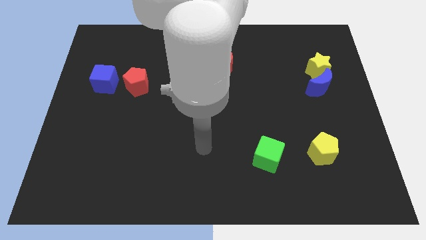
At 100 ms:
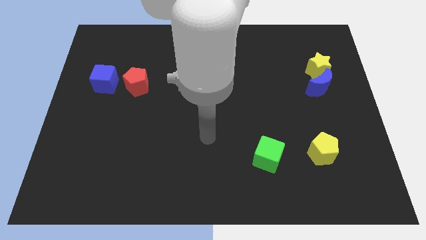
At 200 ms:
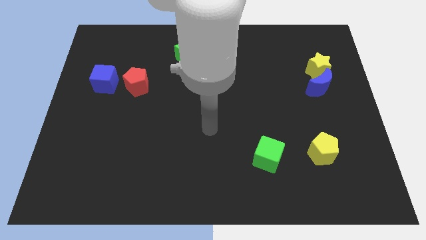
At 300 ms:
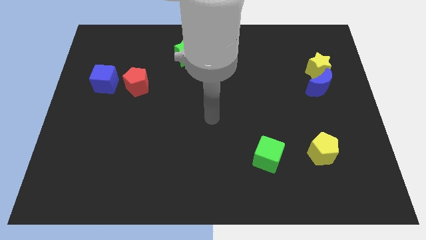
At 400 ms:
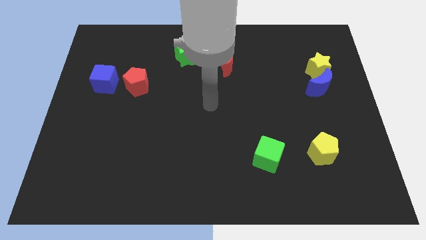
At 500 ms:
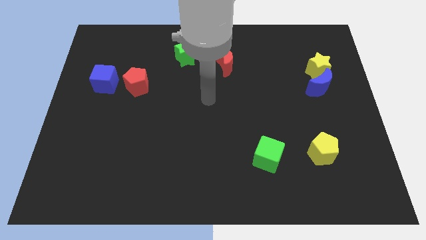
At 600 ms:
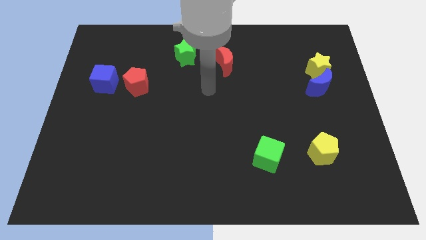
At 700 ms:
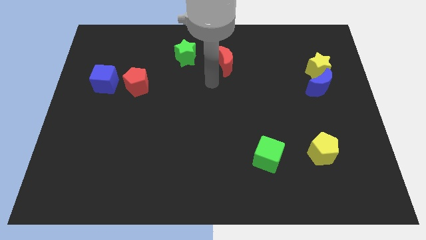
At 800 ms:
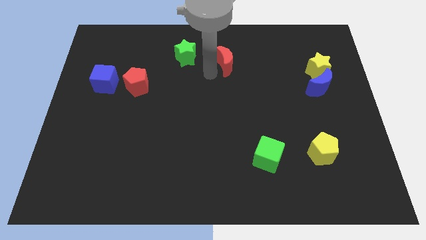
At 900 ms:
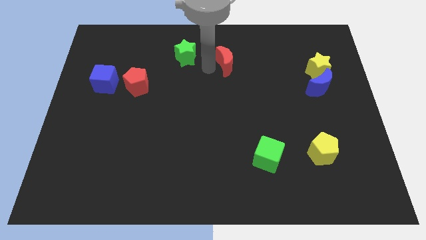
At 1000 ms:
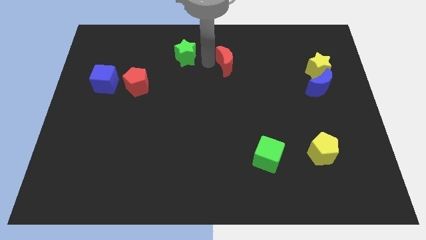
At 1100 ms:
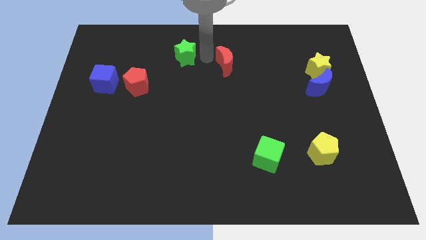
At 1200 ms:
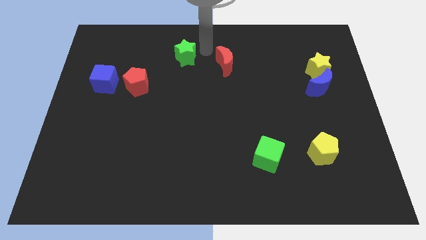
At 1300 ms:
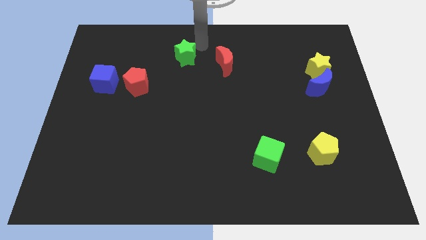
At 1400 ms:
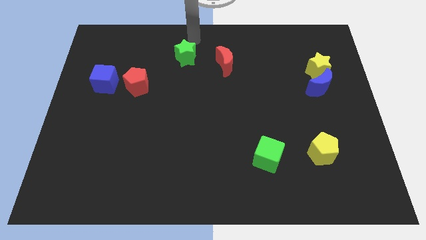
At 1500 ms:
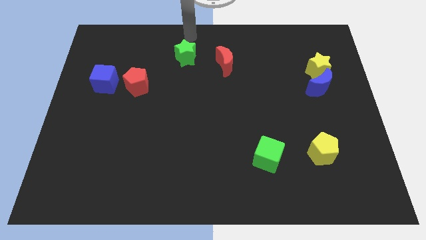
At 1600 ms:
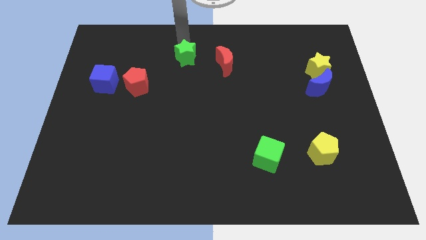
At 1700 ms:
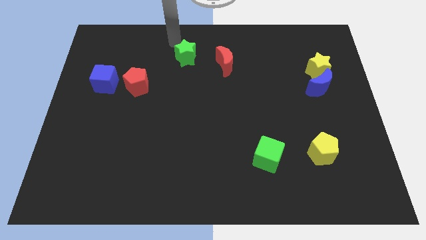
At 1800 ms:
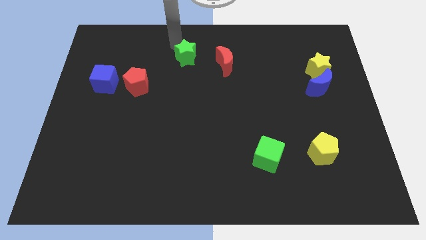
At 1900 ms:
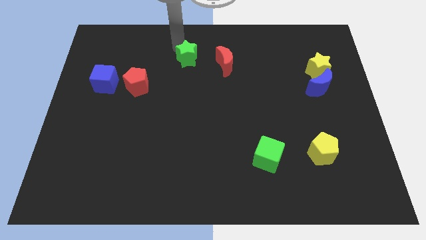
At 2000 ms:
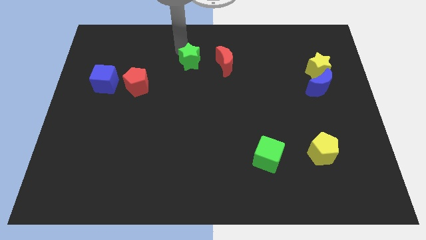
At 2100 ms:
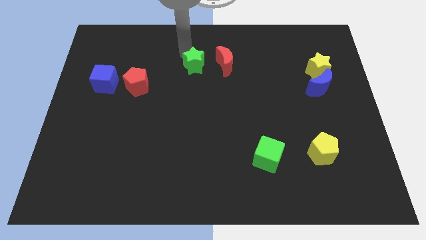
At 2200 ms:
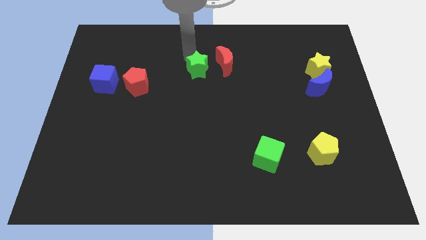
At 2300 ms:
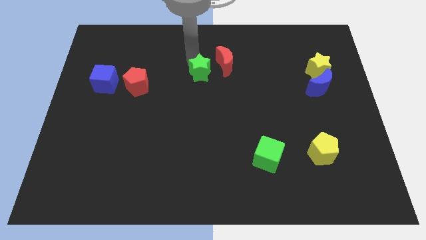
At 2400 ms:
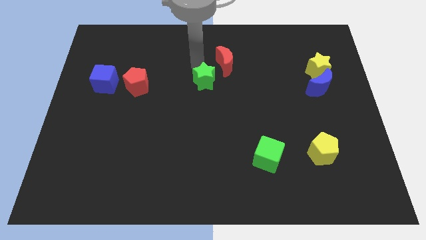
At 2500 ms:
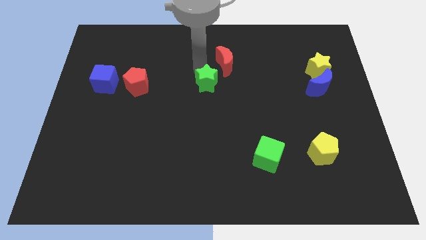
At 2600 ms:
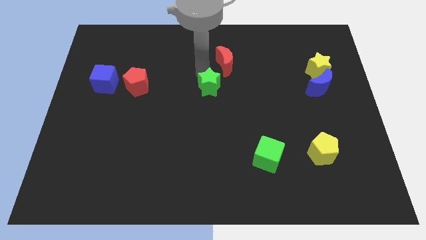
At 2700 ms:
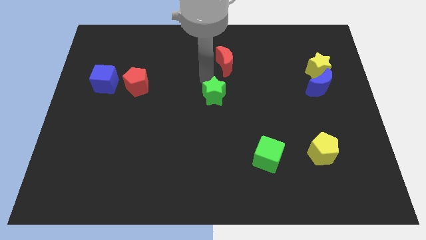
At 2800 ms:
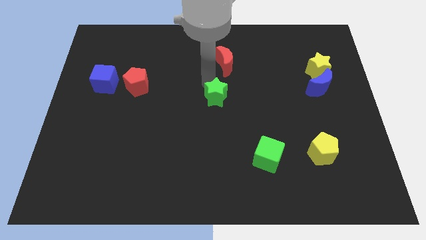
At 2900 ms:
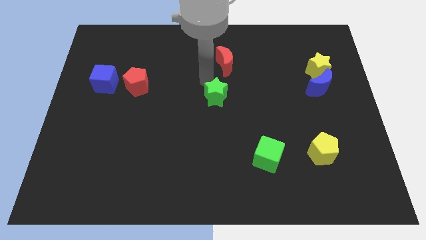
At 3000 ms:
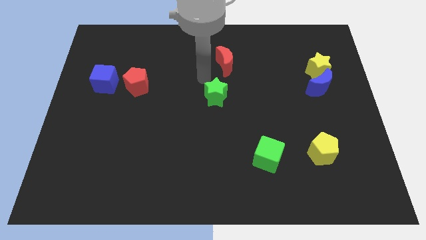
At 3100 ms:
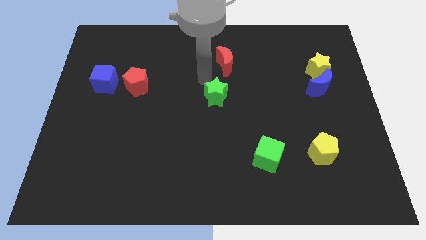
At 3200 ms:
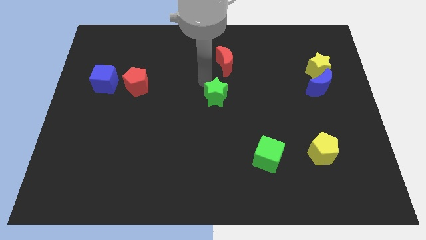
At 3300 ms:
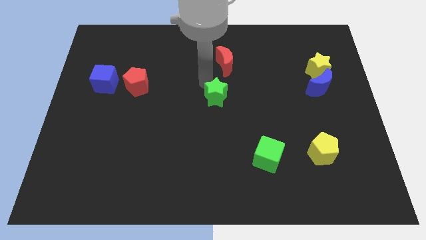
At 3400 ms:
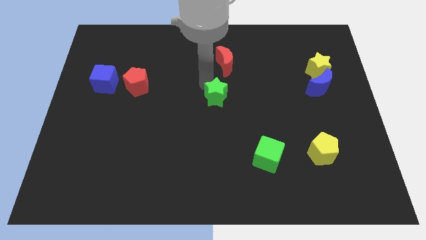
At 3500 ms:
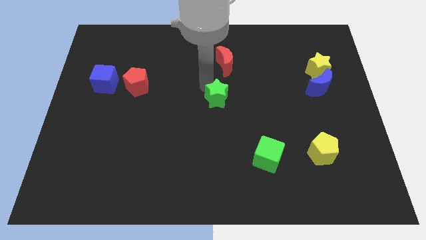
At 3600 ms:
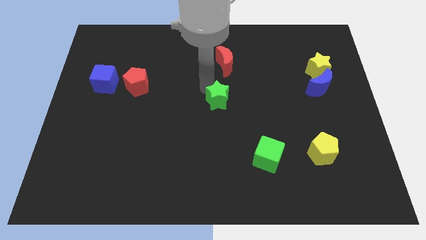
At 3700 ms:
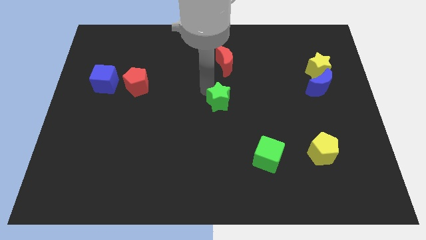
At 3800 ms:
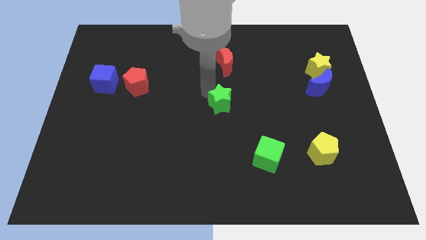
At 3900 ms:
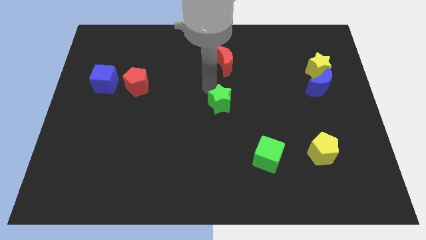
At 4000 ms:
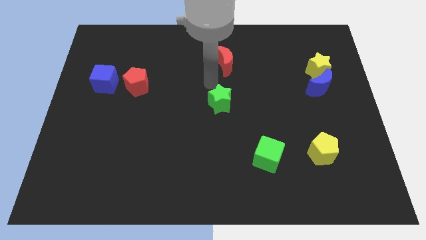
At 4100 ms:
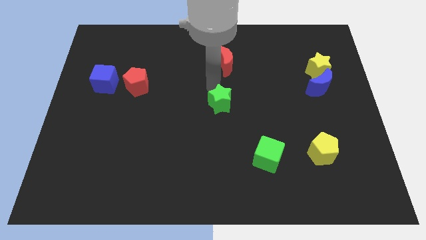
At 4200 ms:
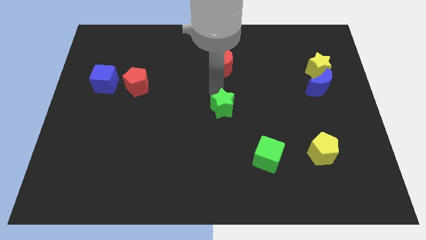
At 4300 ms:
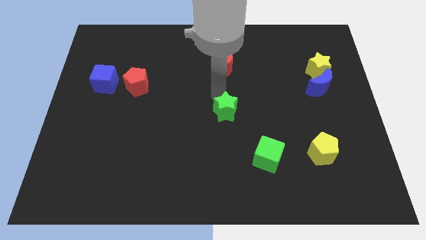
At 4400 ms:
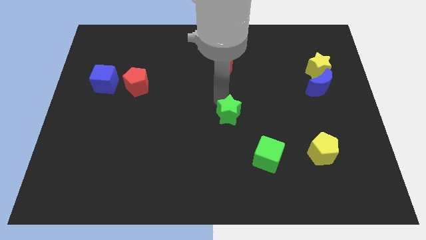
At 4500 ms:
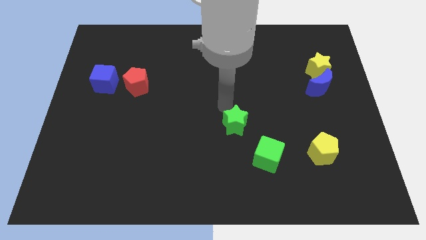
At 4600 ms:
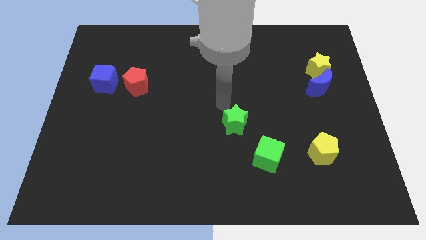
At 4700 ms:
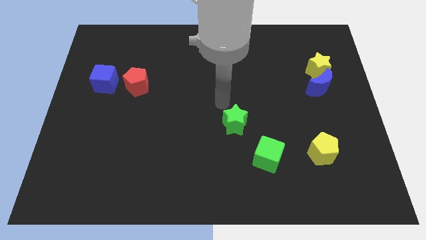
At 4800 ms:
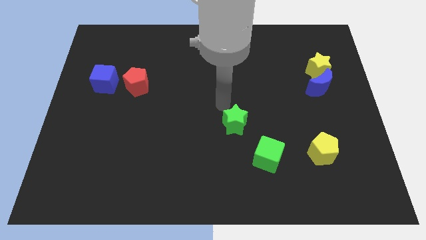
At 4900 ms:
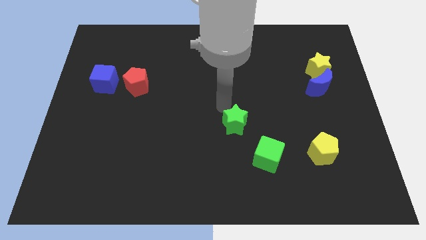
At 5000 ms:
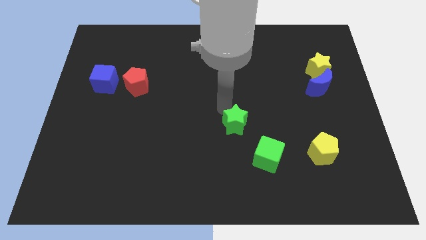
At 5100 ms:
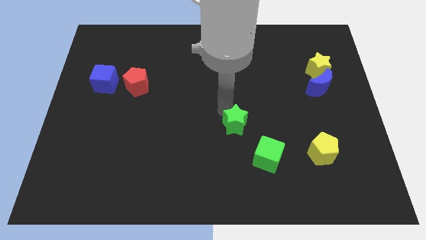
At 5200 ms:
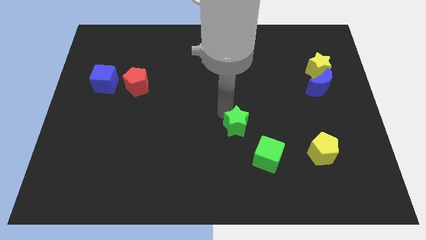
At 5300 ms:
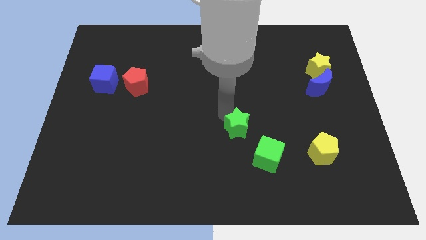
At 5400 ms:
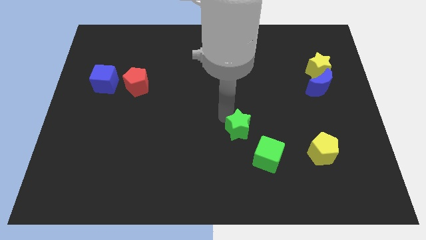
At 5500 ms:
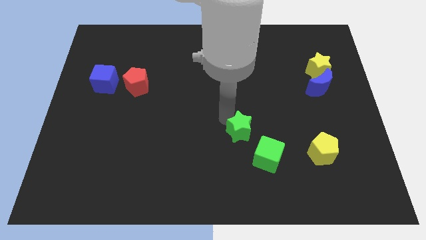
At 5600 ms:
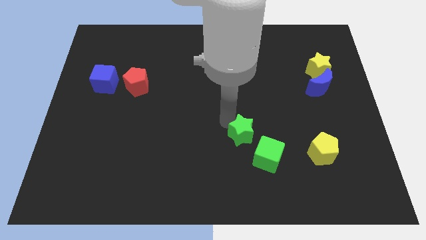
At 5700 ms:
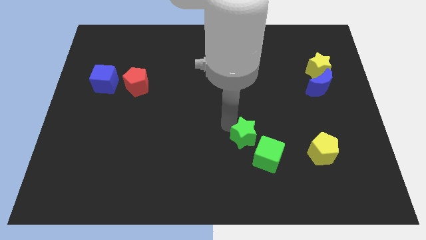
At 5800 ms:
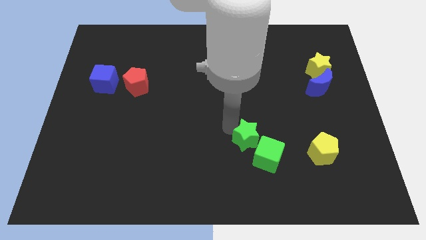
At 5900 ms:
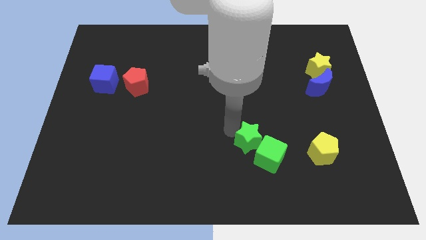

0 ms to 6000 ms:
put the green star to the green cube

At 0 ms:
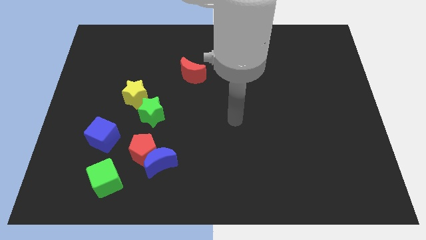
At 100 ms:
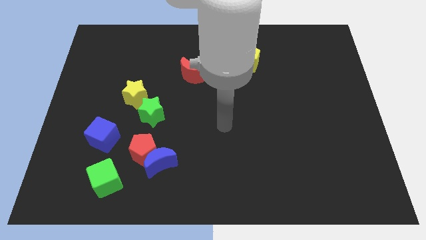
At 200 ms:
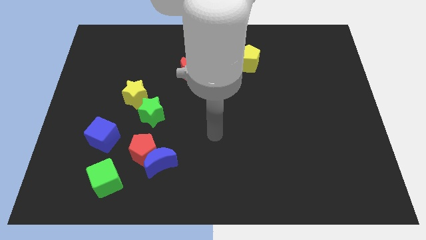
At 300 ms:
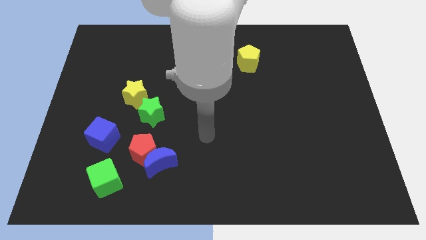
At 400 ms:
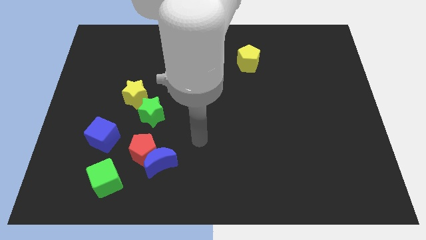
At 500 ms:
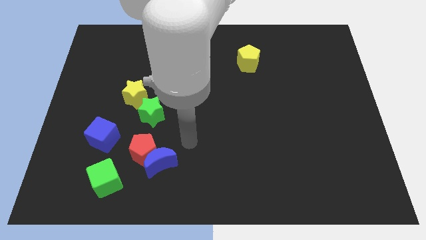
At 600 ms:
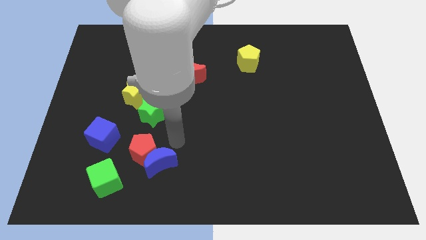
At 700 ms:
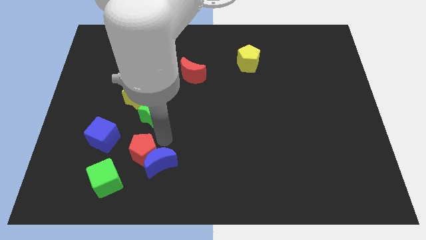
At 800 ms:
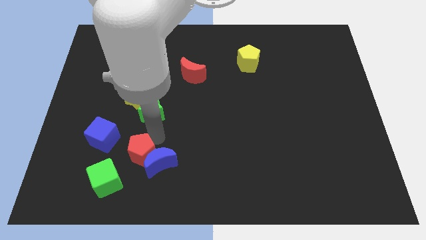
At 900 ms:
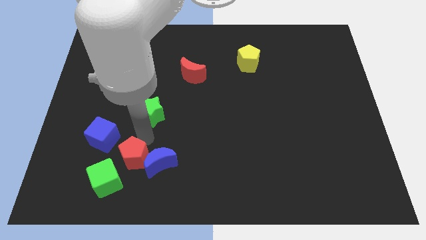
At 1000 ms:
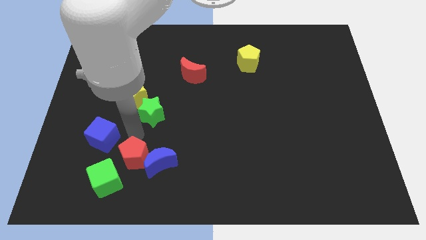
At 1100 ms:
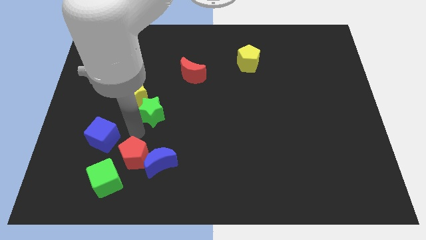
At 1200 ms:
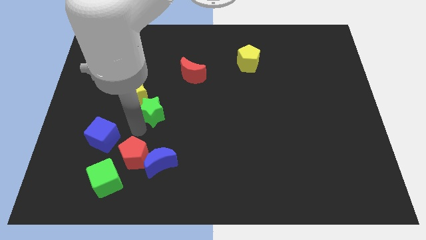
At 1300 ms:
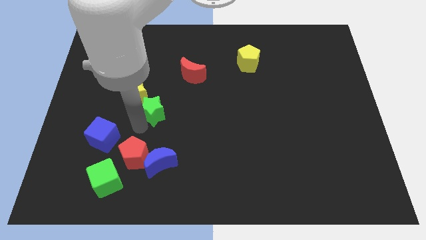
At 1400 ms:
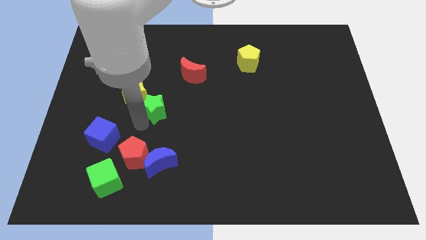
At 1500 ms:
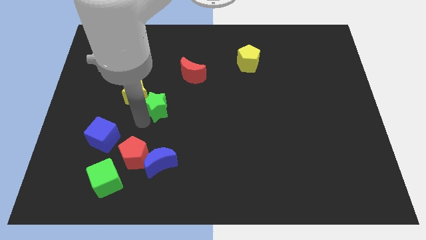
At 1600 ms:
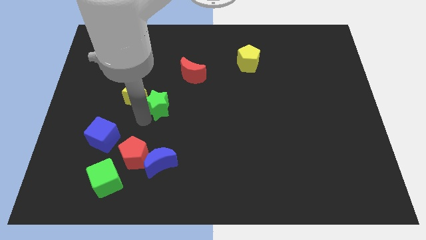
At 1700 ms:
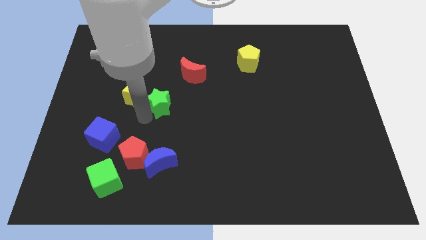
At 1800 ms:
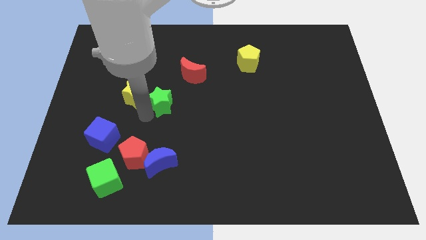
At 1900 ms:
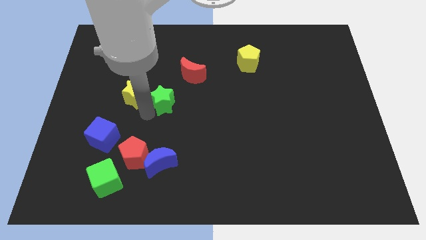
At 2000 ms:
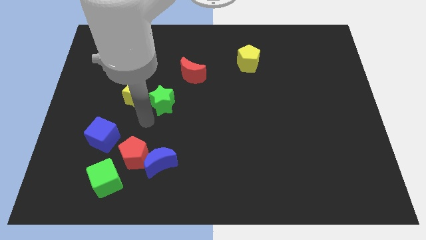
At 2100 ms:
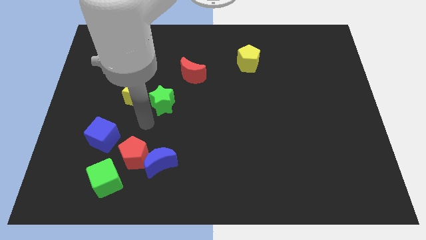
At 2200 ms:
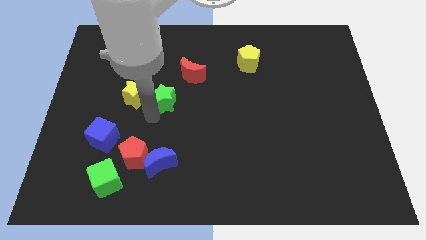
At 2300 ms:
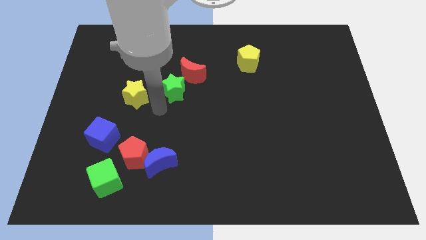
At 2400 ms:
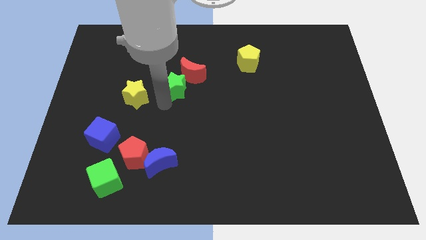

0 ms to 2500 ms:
push the green star to the red moon
